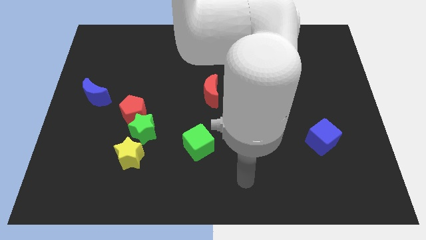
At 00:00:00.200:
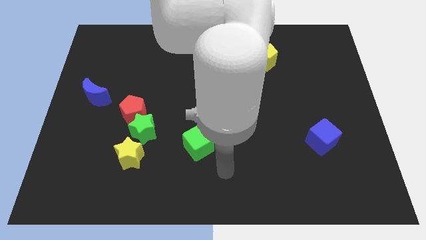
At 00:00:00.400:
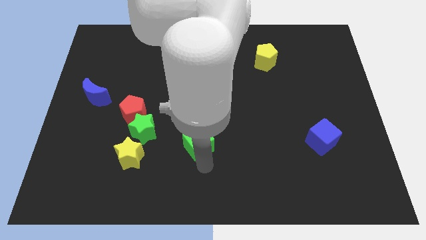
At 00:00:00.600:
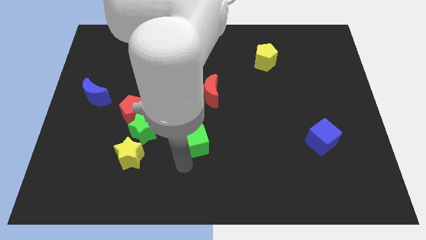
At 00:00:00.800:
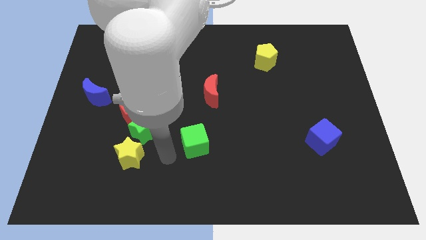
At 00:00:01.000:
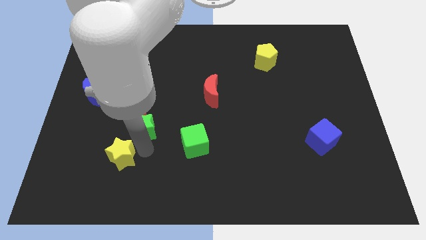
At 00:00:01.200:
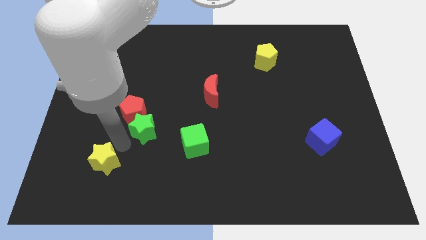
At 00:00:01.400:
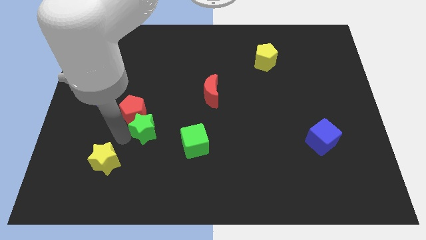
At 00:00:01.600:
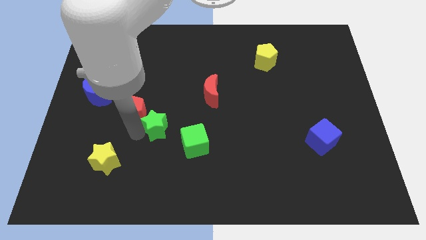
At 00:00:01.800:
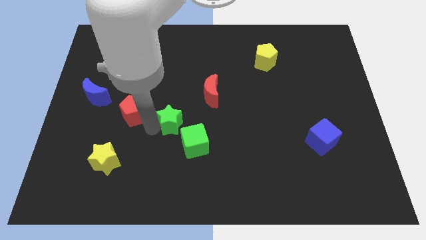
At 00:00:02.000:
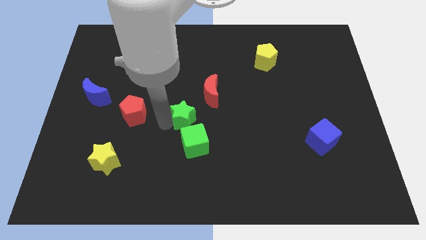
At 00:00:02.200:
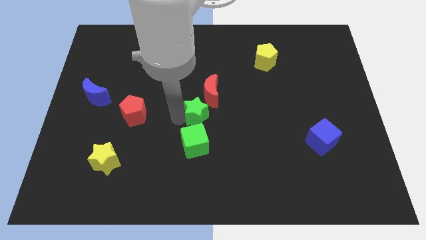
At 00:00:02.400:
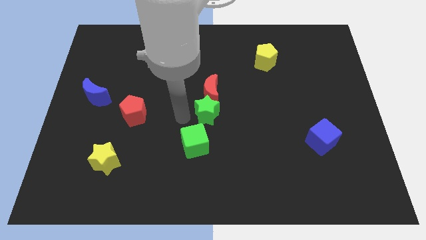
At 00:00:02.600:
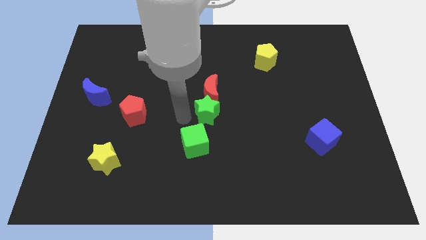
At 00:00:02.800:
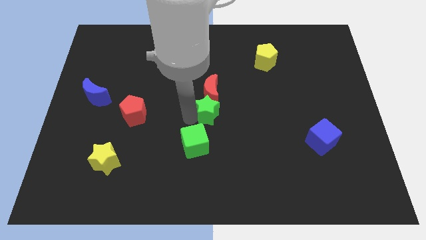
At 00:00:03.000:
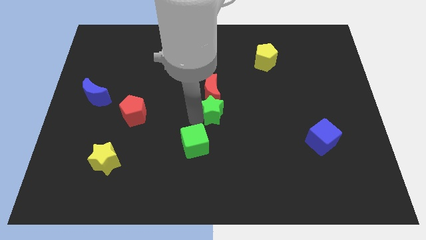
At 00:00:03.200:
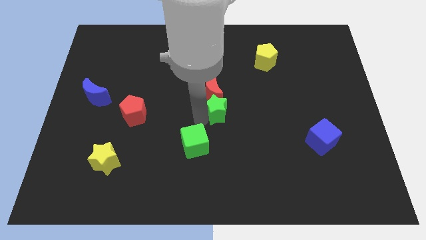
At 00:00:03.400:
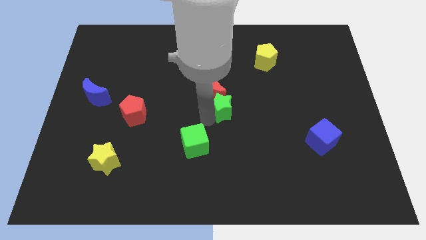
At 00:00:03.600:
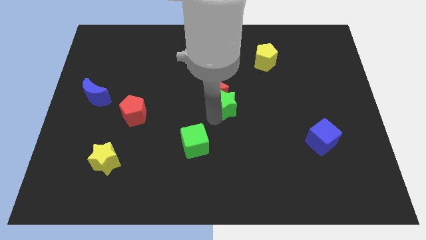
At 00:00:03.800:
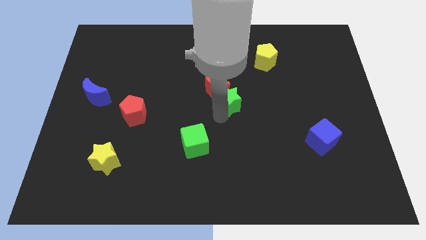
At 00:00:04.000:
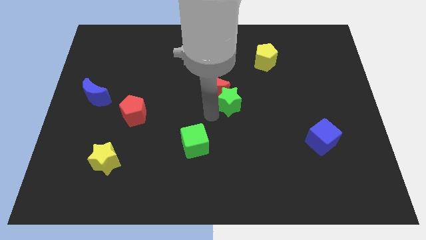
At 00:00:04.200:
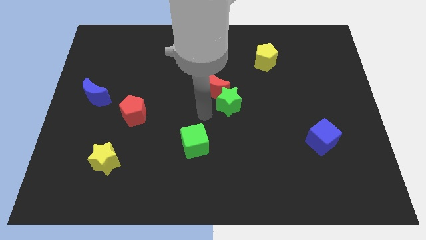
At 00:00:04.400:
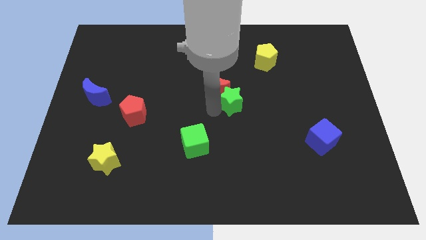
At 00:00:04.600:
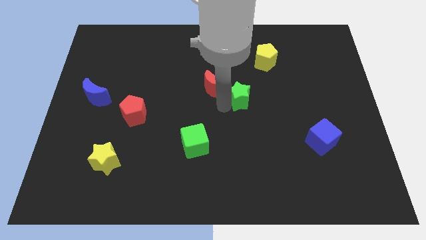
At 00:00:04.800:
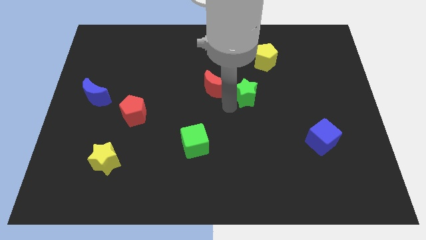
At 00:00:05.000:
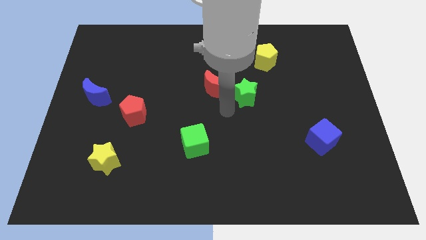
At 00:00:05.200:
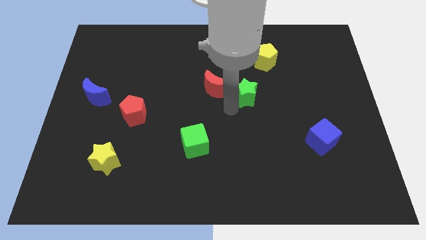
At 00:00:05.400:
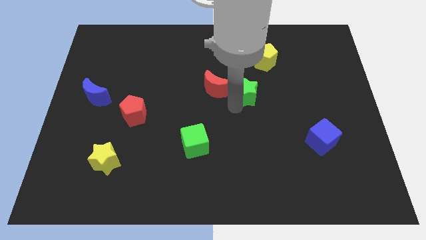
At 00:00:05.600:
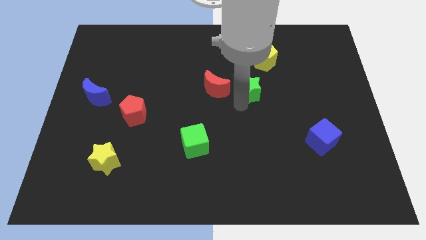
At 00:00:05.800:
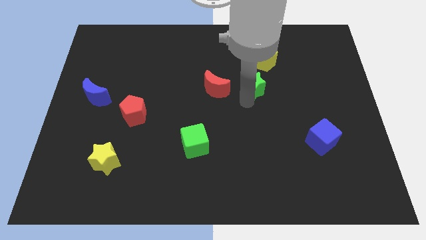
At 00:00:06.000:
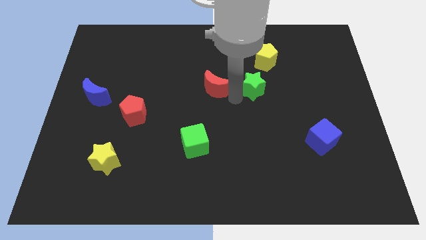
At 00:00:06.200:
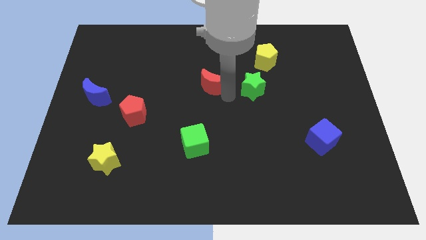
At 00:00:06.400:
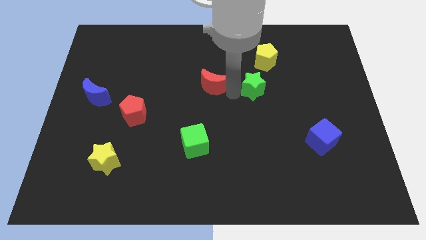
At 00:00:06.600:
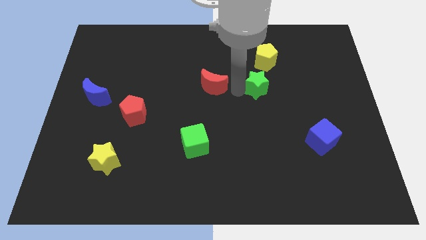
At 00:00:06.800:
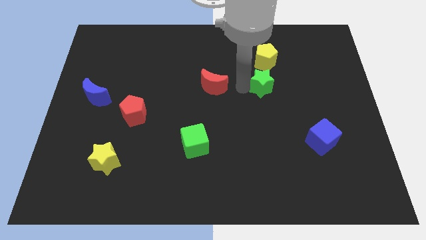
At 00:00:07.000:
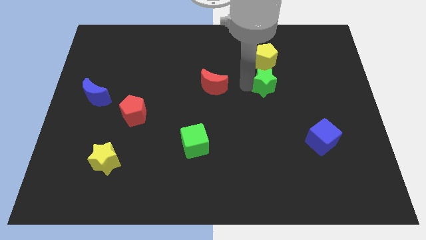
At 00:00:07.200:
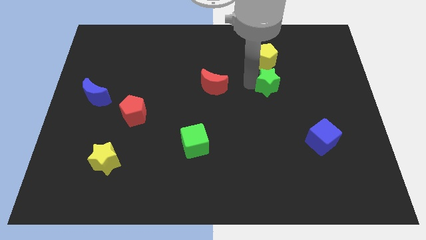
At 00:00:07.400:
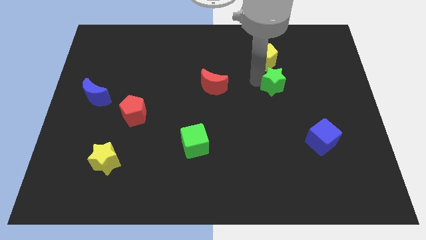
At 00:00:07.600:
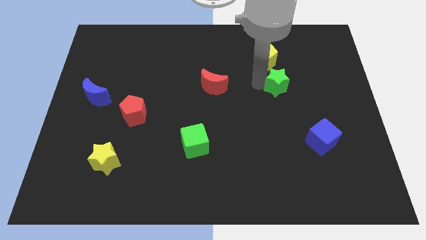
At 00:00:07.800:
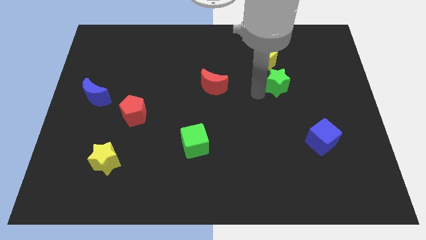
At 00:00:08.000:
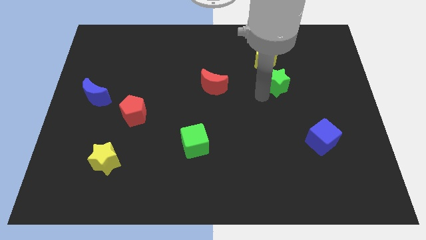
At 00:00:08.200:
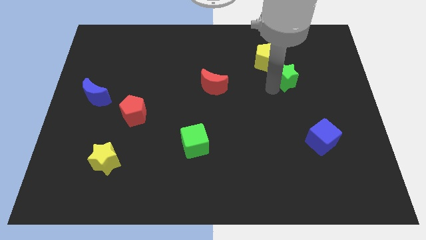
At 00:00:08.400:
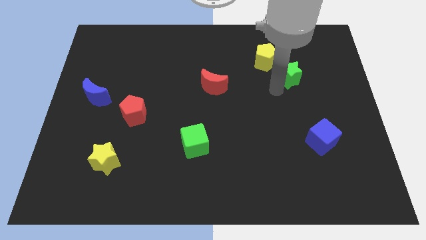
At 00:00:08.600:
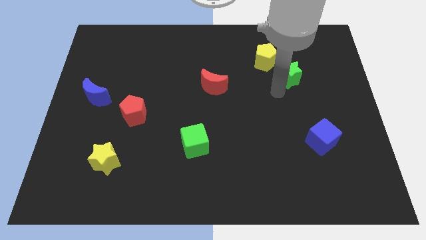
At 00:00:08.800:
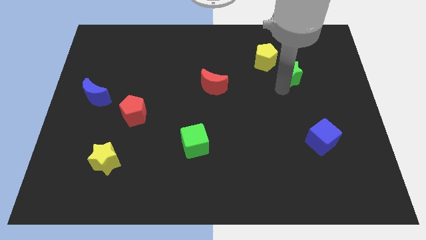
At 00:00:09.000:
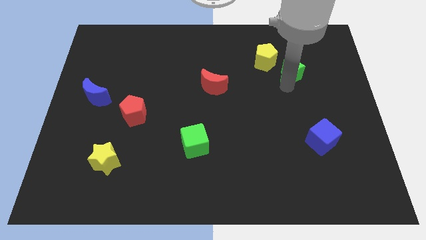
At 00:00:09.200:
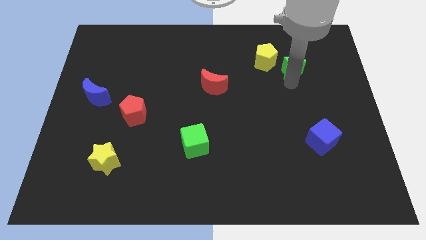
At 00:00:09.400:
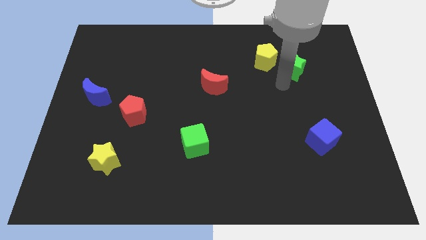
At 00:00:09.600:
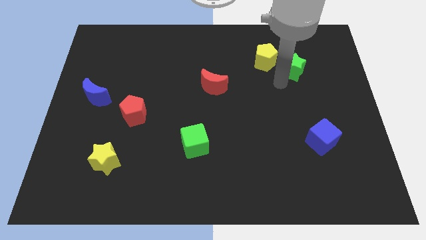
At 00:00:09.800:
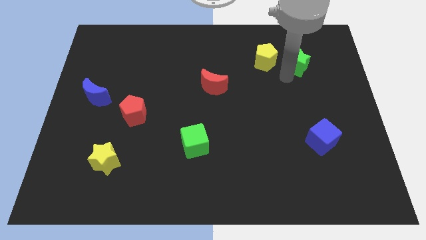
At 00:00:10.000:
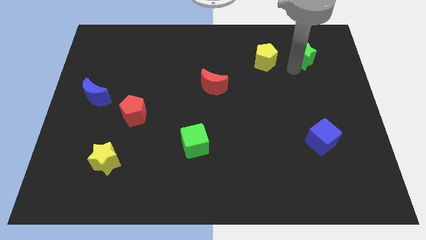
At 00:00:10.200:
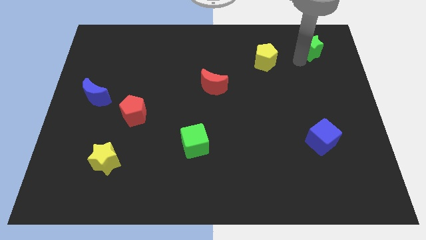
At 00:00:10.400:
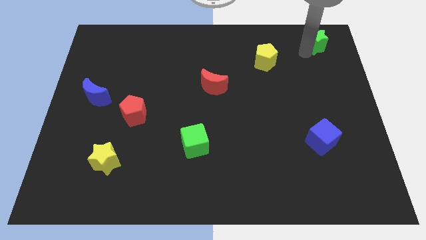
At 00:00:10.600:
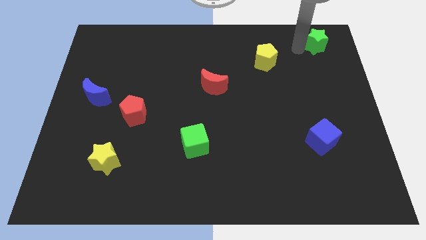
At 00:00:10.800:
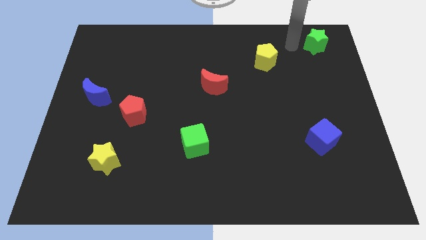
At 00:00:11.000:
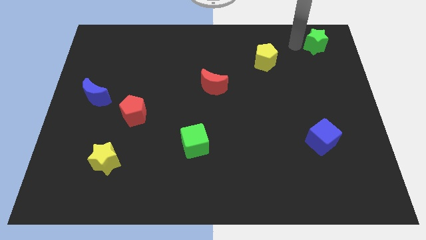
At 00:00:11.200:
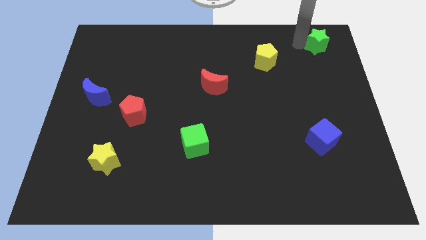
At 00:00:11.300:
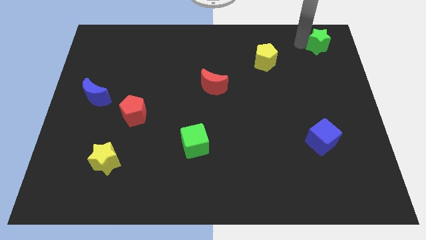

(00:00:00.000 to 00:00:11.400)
move the green star to the top right of the board

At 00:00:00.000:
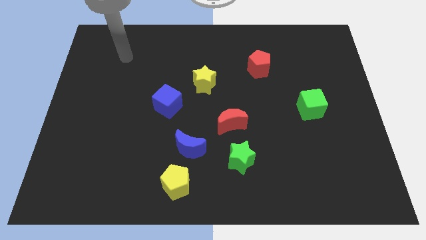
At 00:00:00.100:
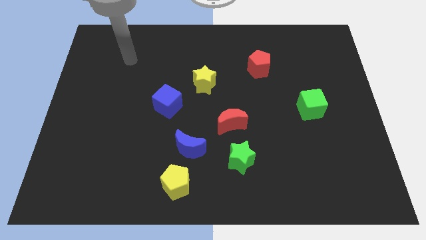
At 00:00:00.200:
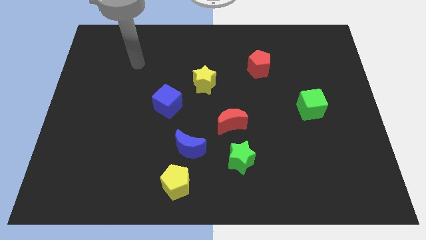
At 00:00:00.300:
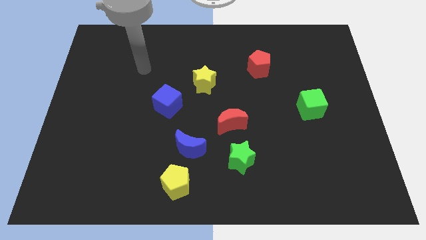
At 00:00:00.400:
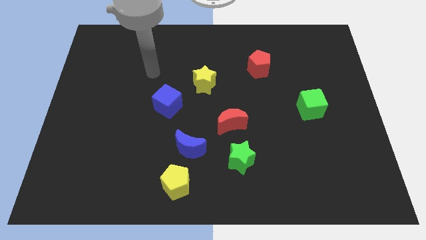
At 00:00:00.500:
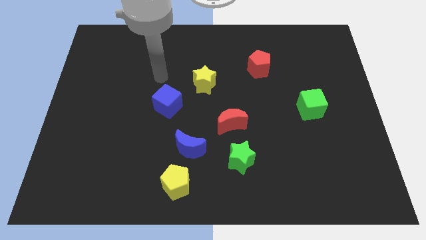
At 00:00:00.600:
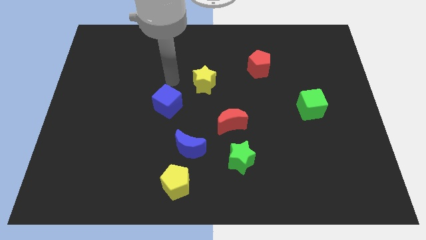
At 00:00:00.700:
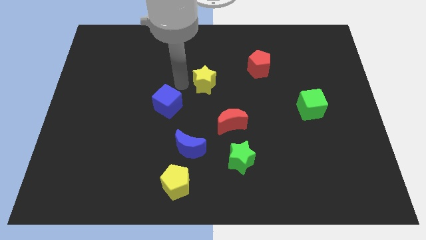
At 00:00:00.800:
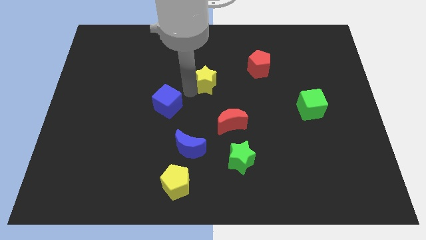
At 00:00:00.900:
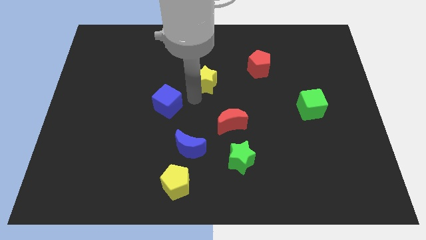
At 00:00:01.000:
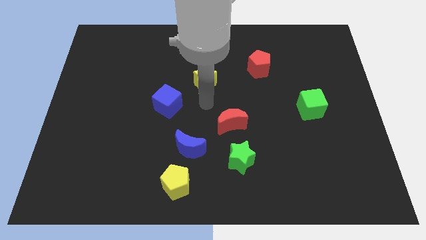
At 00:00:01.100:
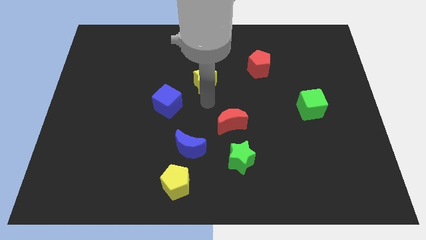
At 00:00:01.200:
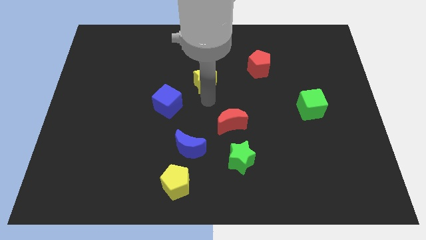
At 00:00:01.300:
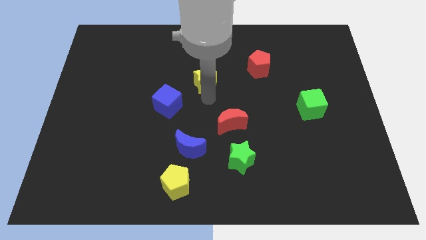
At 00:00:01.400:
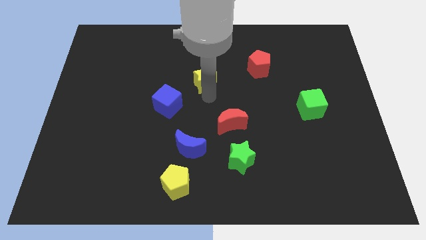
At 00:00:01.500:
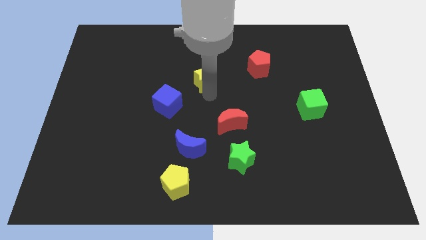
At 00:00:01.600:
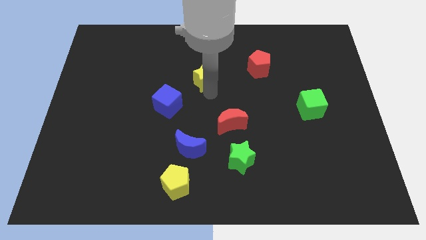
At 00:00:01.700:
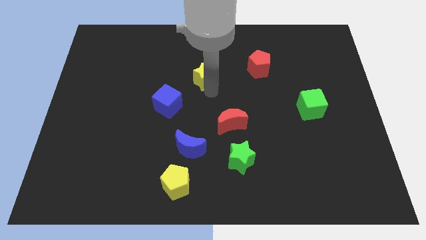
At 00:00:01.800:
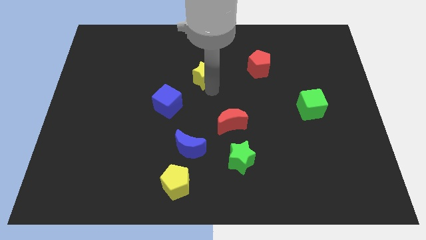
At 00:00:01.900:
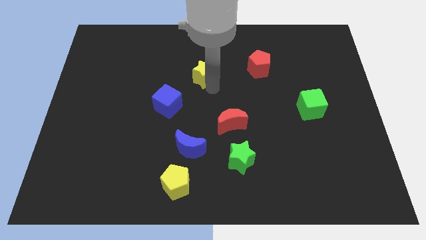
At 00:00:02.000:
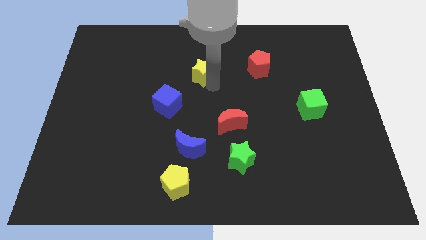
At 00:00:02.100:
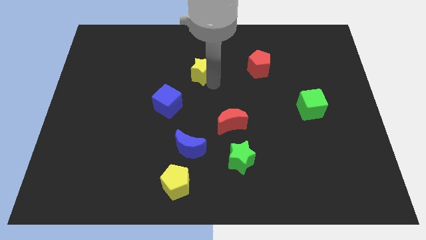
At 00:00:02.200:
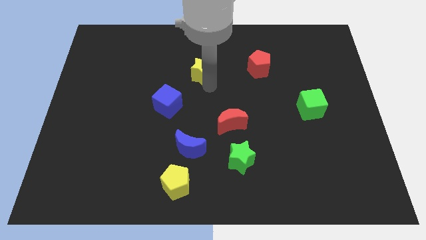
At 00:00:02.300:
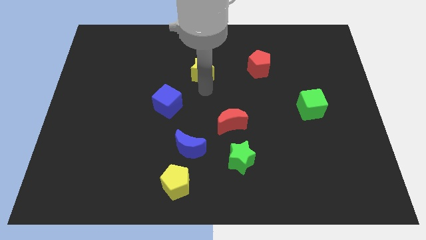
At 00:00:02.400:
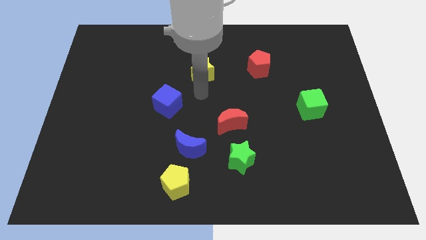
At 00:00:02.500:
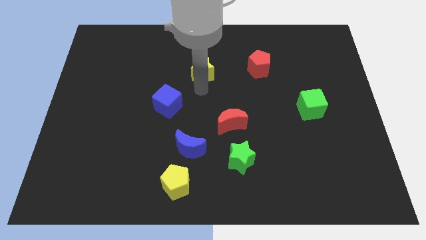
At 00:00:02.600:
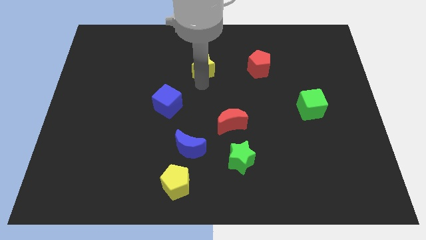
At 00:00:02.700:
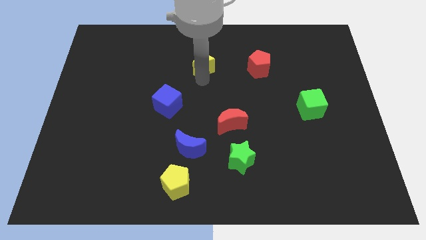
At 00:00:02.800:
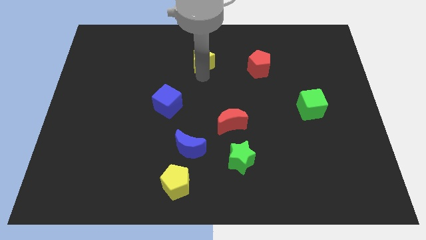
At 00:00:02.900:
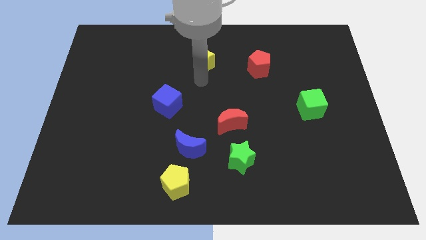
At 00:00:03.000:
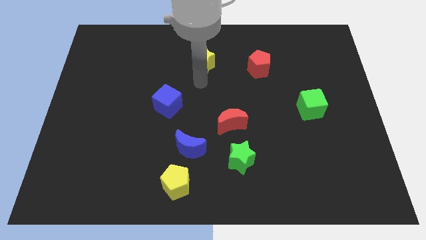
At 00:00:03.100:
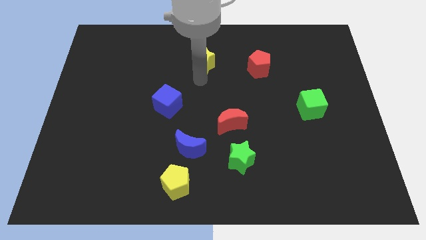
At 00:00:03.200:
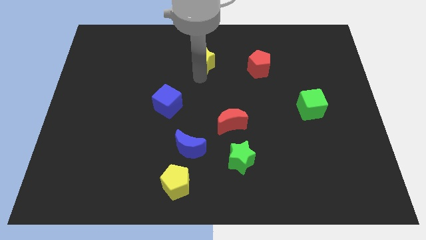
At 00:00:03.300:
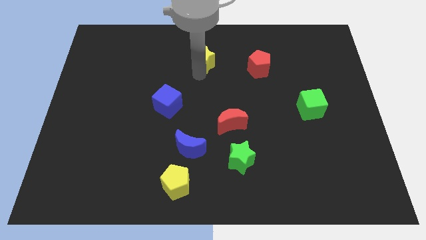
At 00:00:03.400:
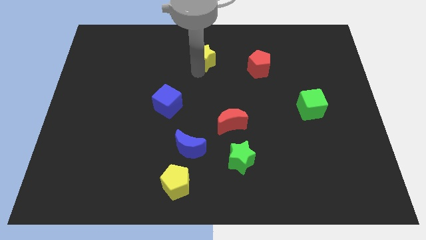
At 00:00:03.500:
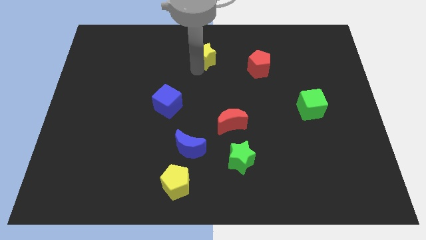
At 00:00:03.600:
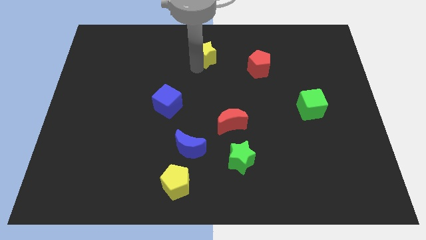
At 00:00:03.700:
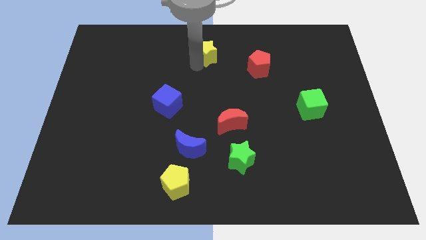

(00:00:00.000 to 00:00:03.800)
slide the yellow star to the top
